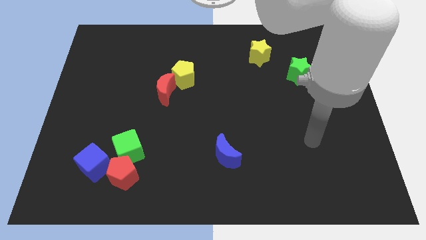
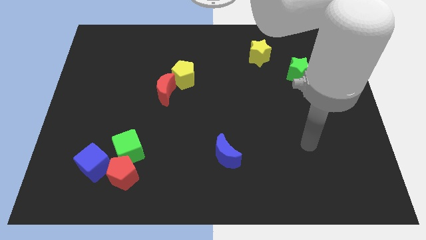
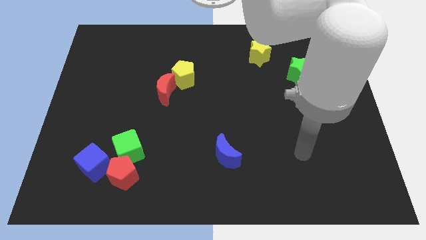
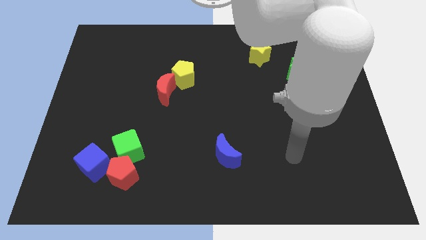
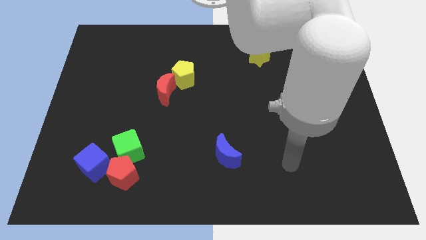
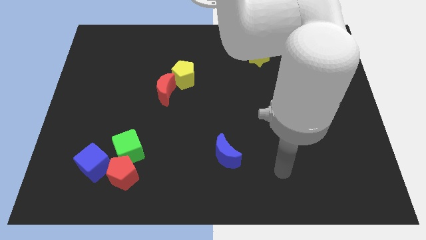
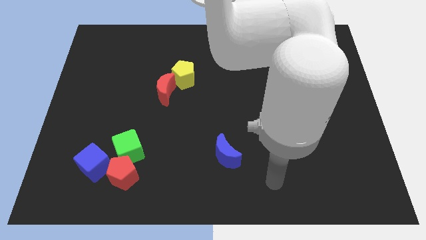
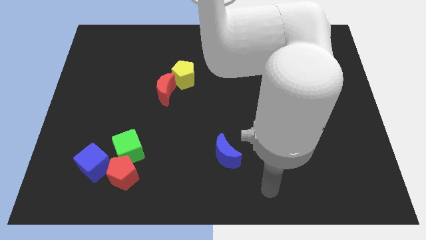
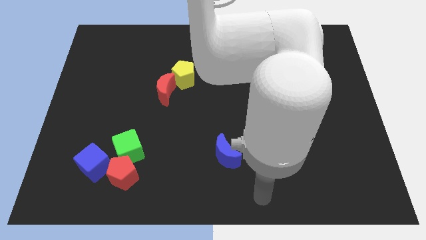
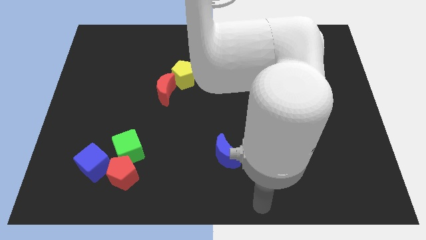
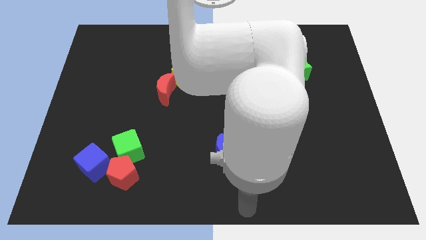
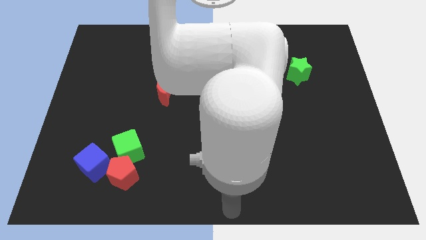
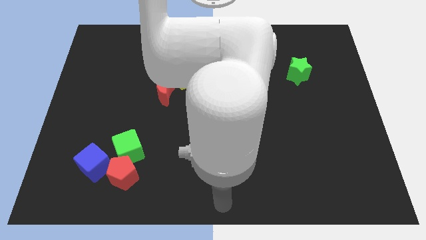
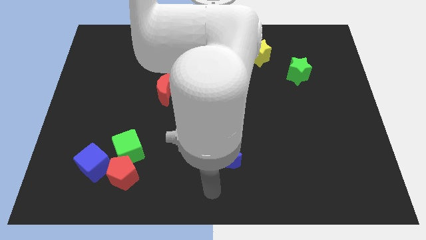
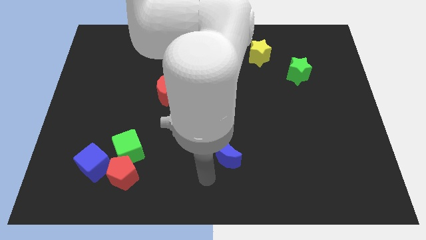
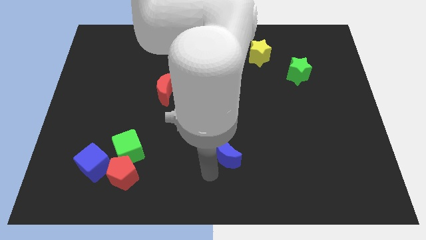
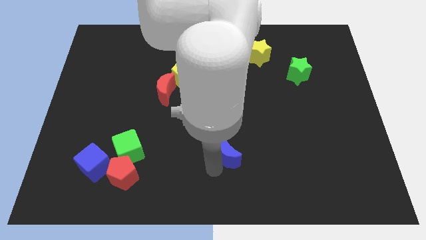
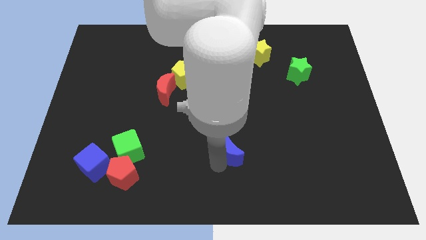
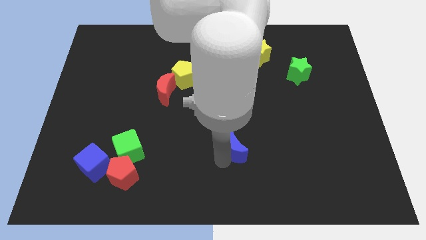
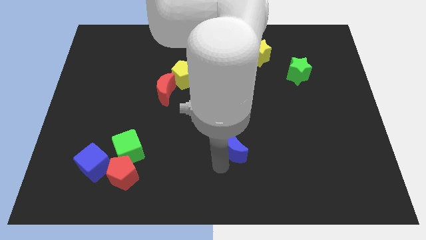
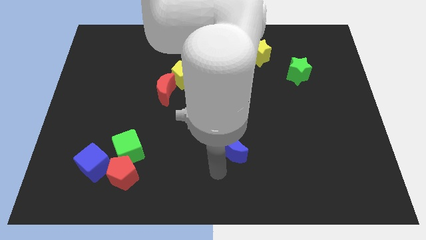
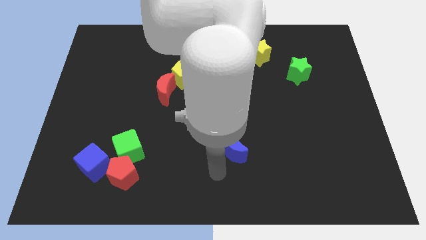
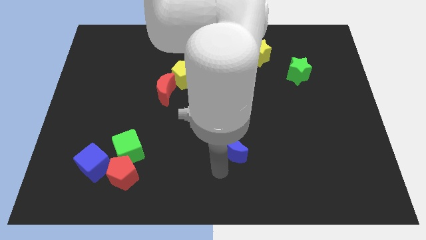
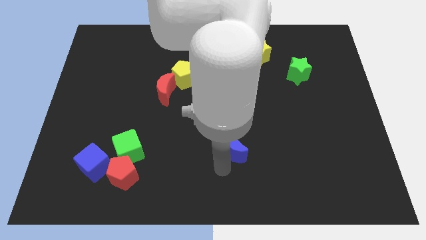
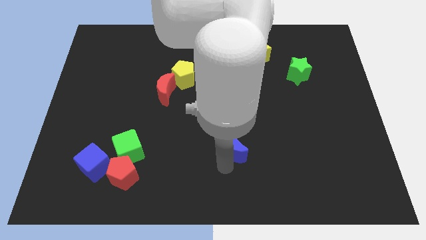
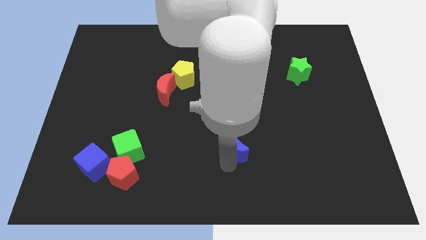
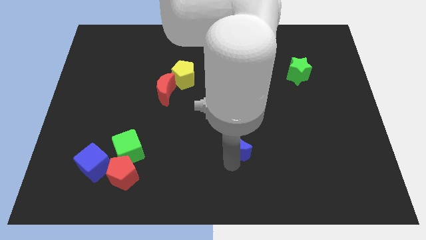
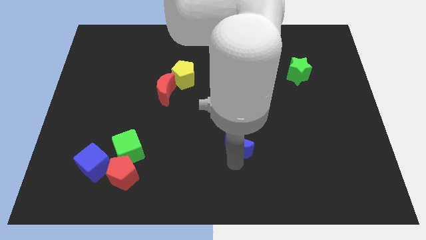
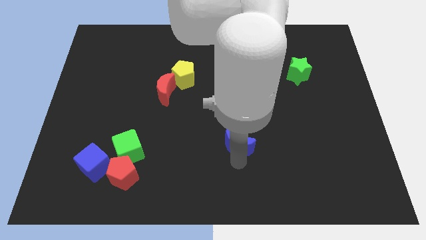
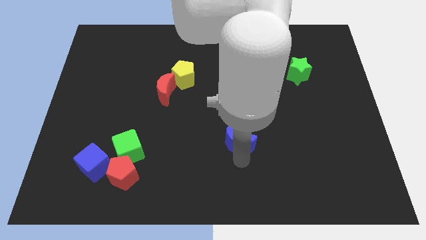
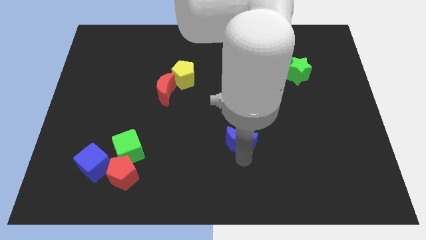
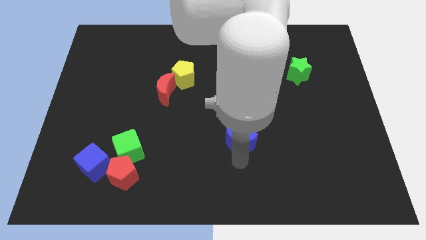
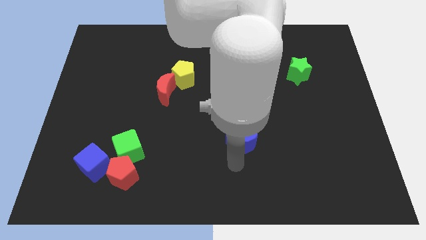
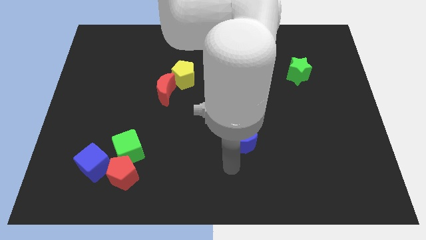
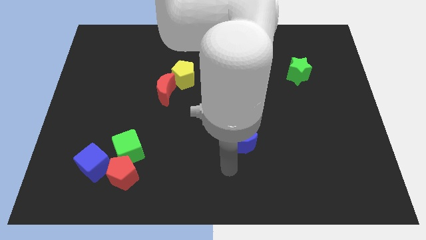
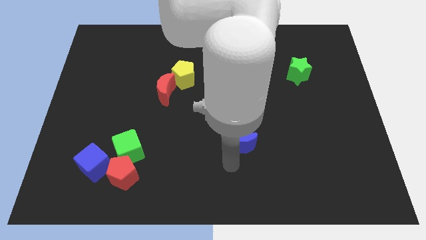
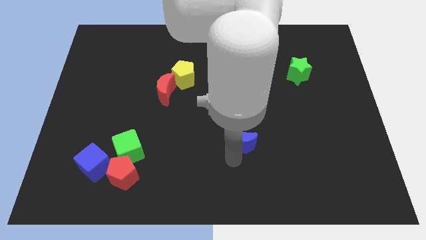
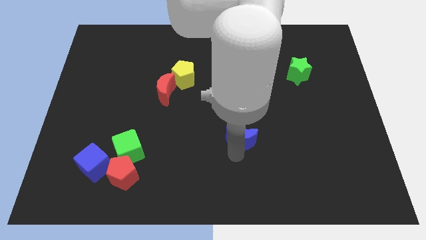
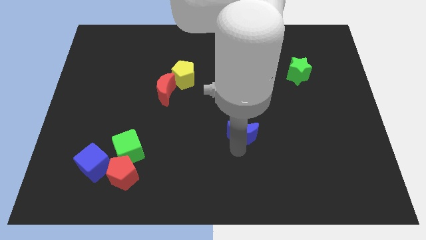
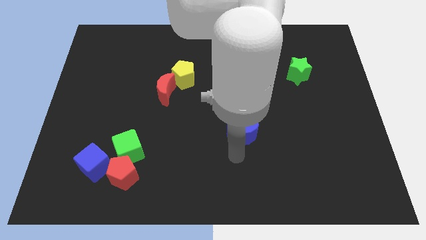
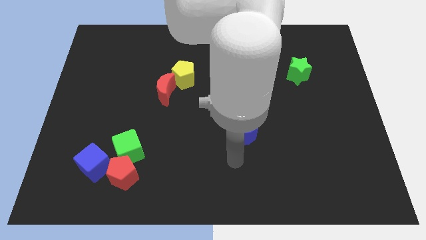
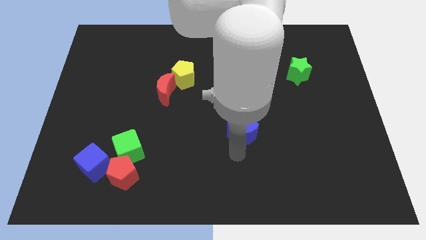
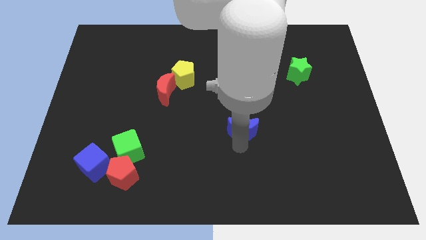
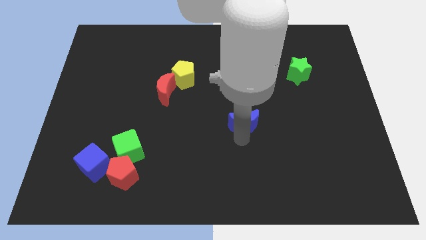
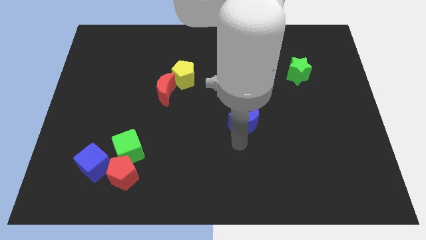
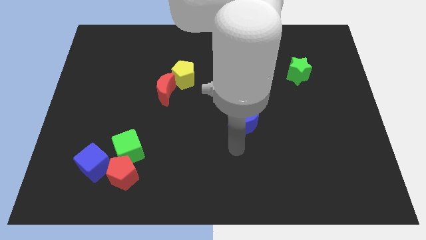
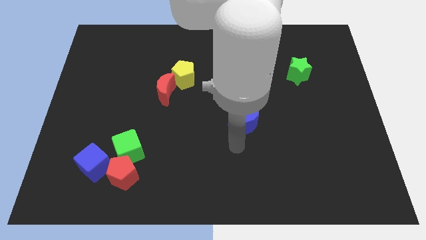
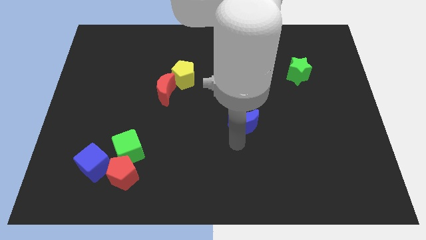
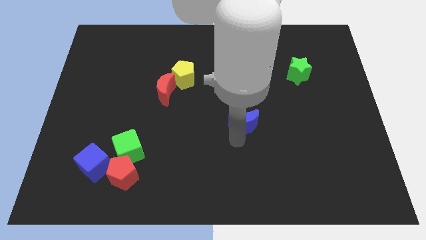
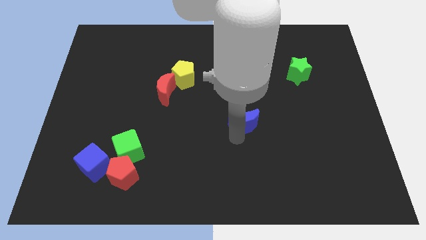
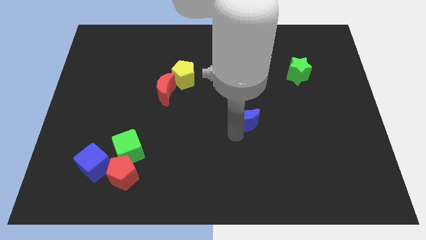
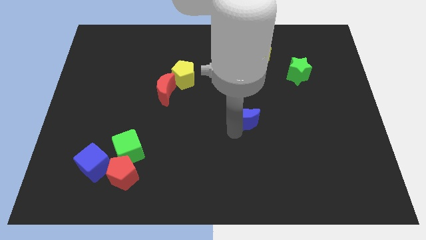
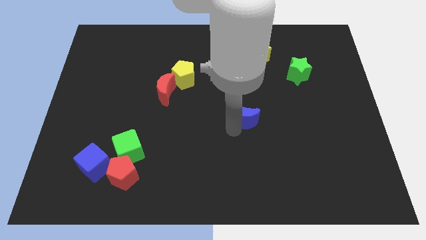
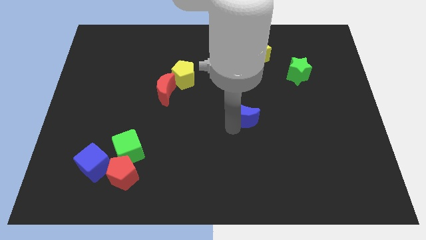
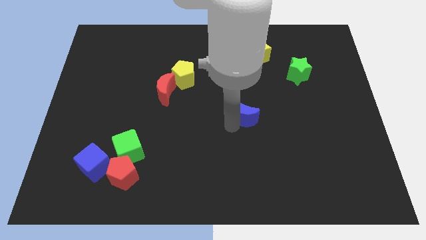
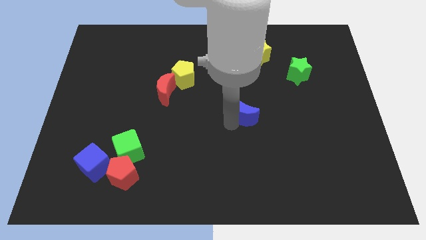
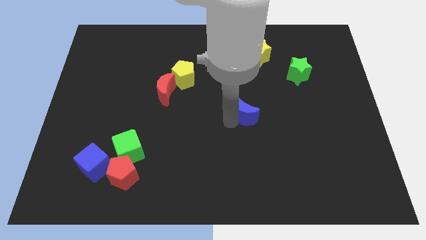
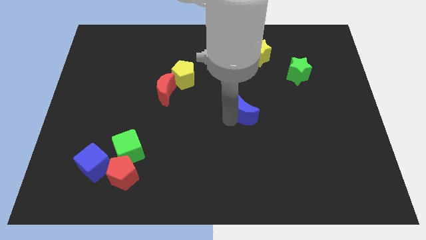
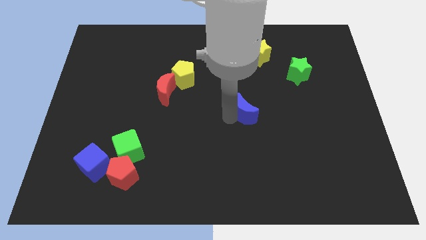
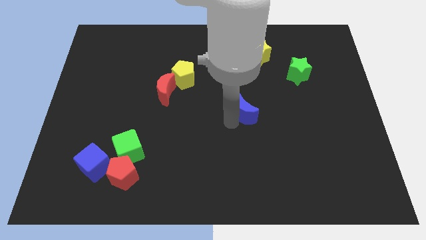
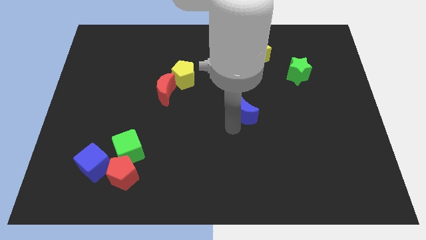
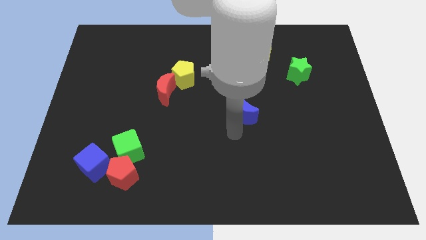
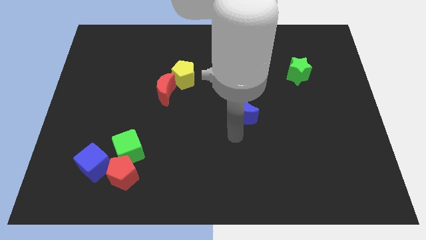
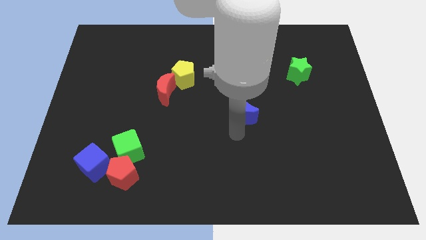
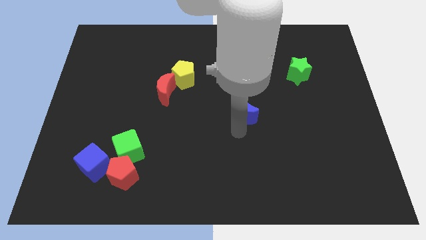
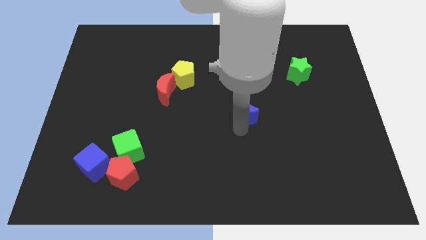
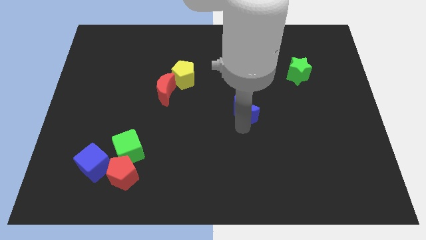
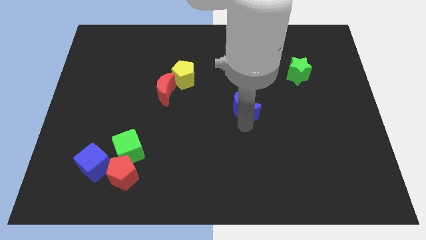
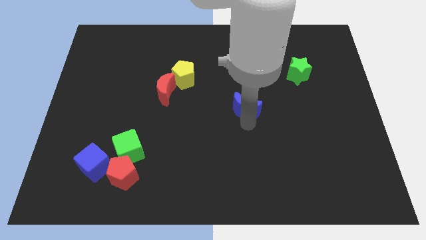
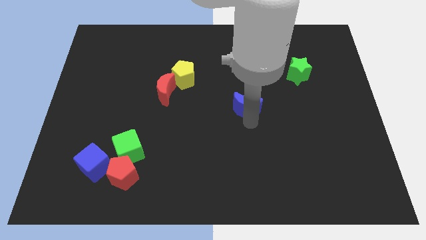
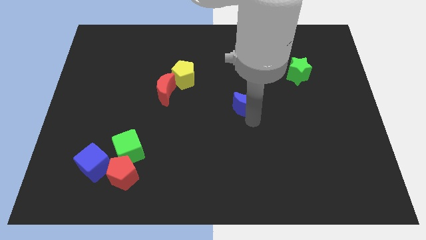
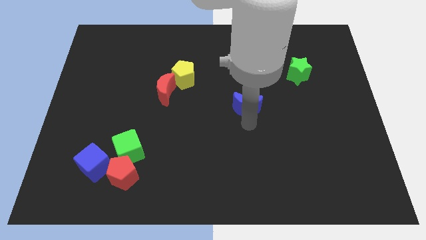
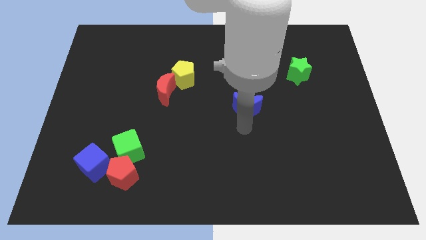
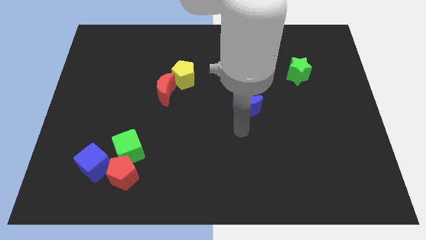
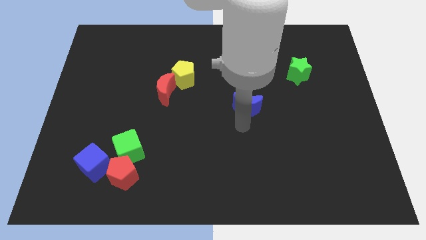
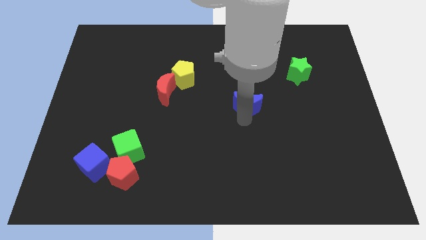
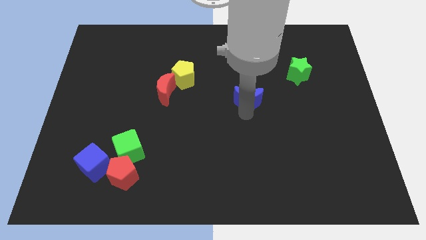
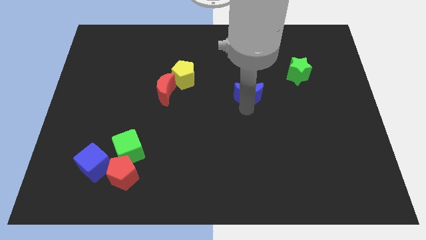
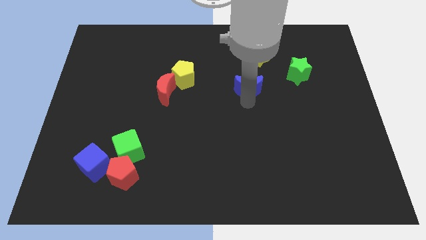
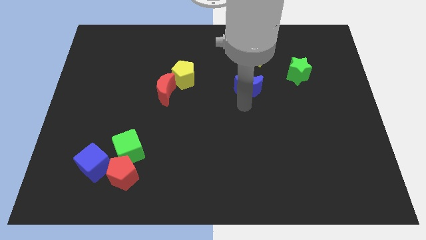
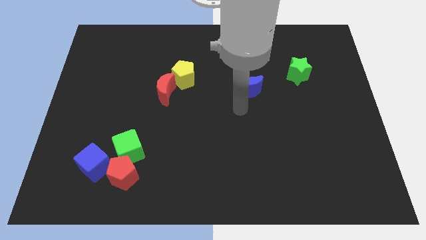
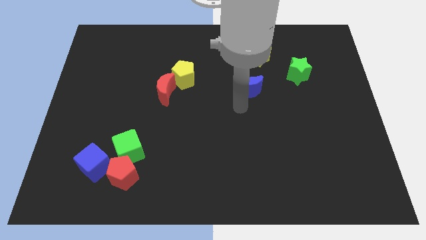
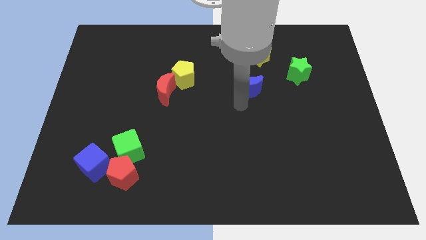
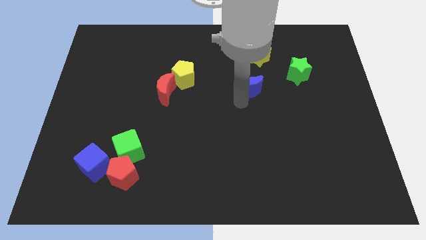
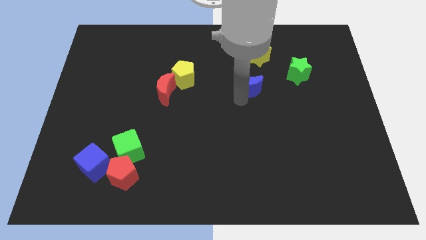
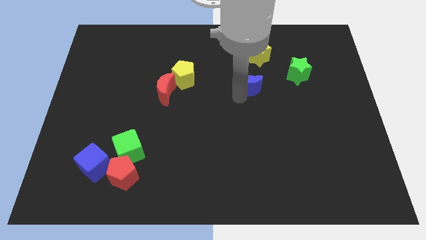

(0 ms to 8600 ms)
slide the blue moon to the left side of the green star
